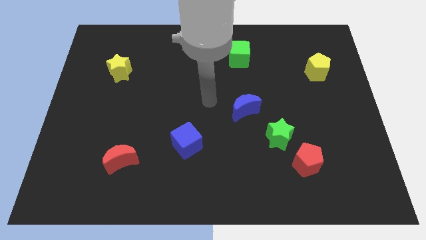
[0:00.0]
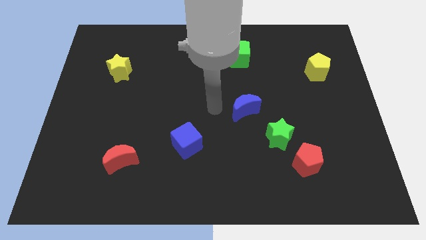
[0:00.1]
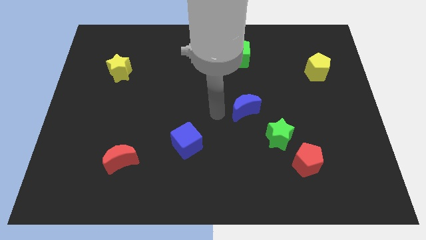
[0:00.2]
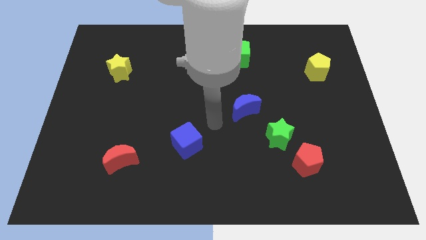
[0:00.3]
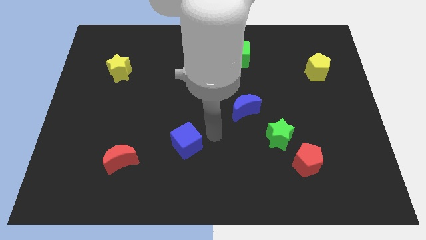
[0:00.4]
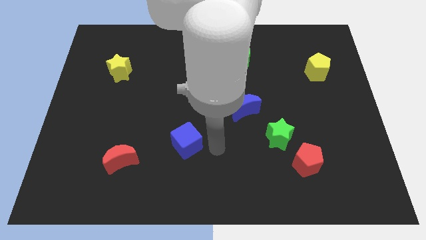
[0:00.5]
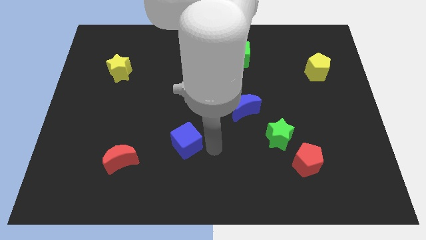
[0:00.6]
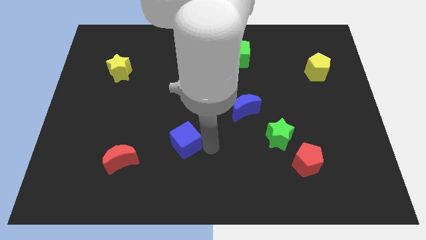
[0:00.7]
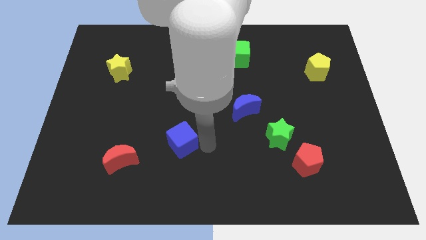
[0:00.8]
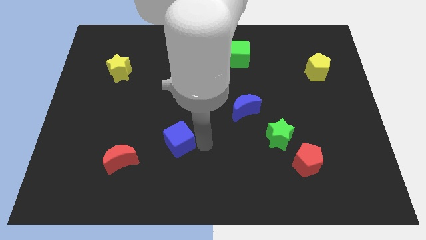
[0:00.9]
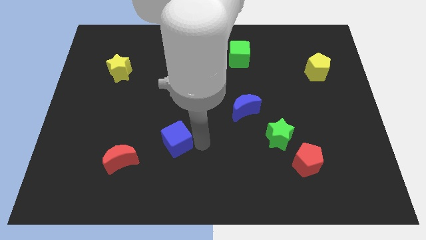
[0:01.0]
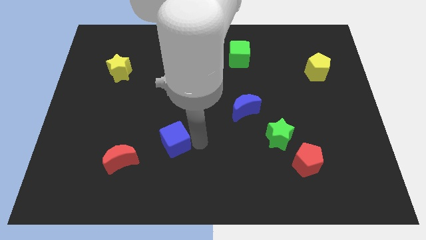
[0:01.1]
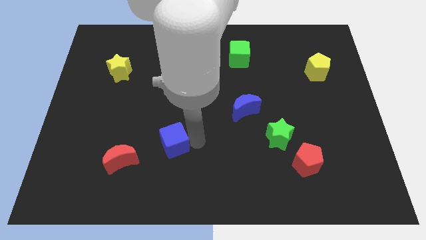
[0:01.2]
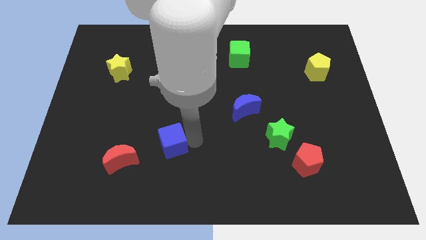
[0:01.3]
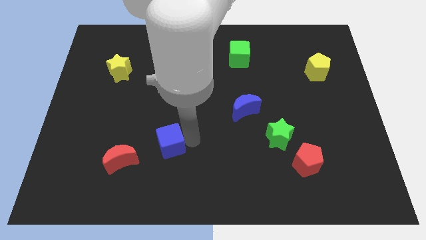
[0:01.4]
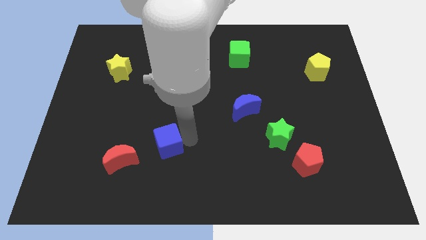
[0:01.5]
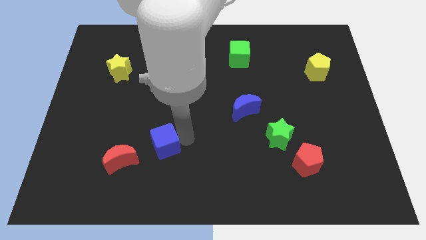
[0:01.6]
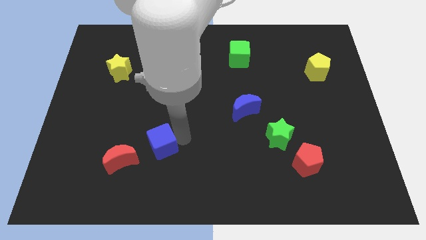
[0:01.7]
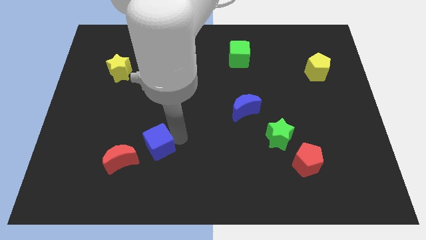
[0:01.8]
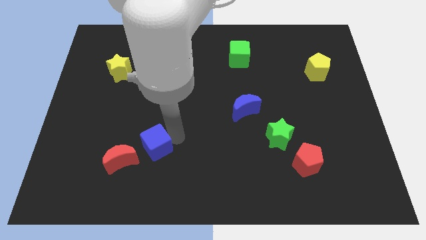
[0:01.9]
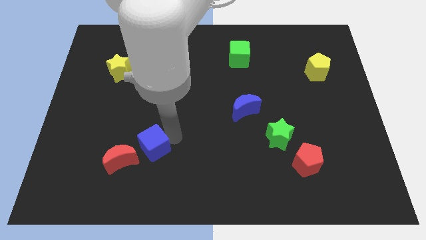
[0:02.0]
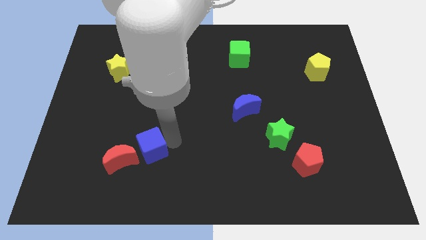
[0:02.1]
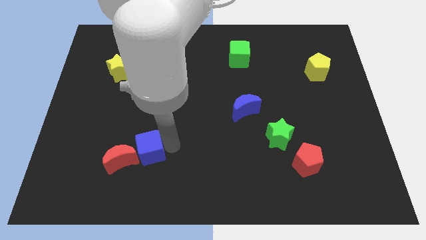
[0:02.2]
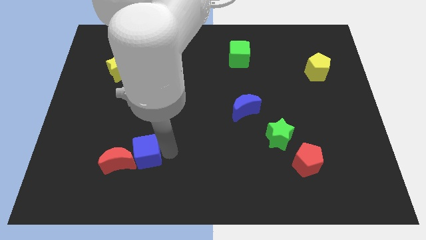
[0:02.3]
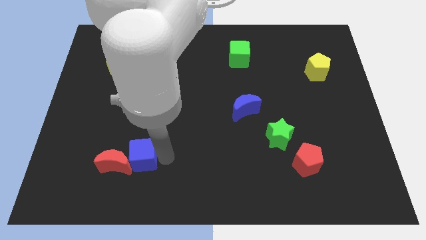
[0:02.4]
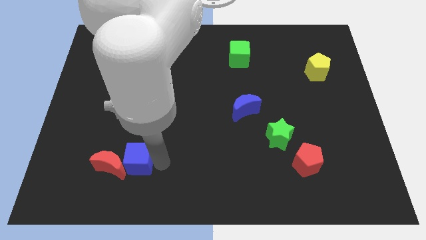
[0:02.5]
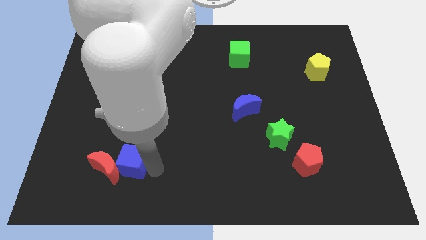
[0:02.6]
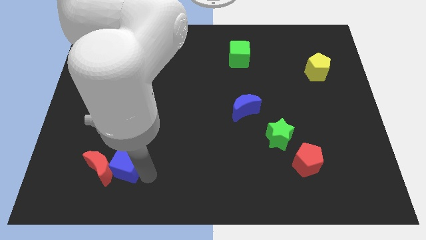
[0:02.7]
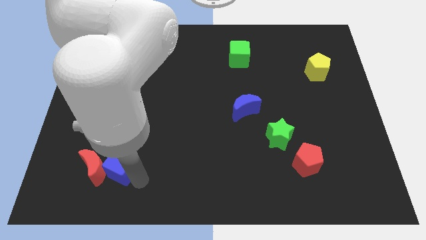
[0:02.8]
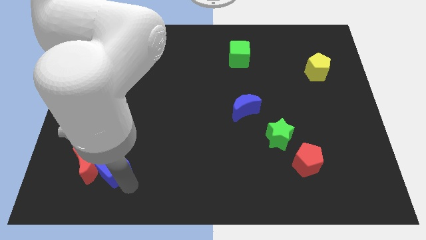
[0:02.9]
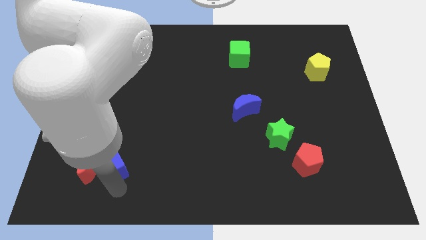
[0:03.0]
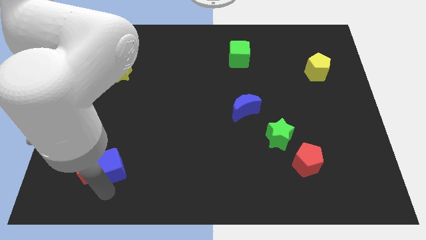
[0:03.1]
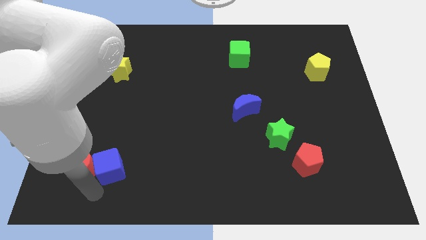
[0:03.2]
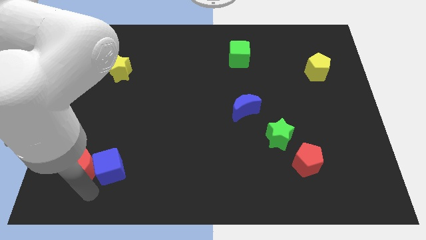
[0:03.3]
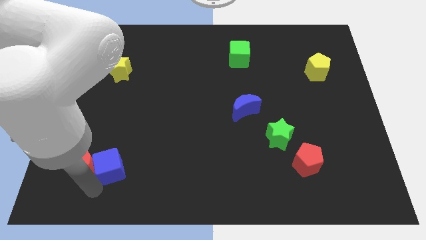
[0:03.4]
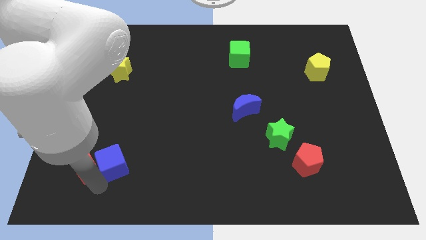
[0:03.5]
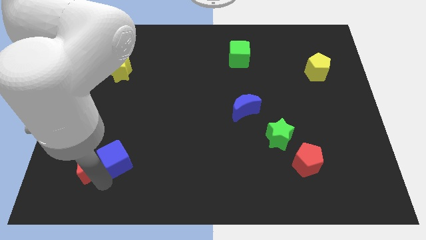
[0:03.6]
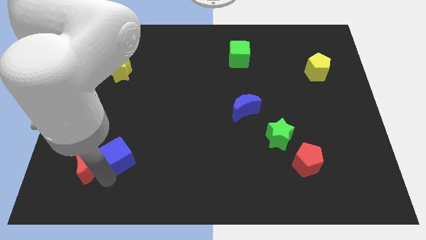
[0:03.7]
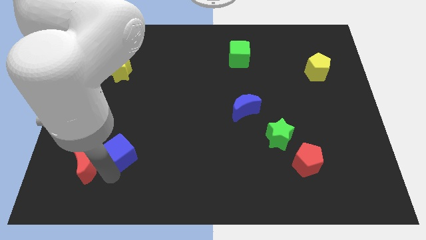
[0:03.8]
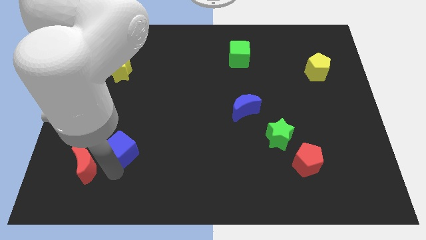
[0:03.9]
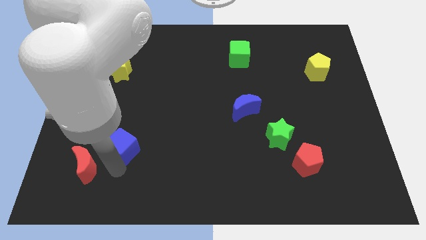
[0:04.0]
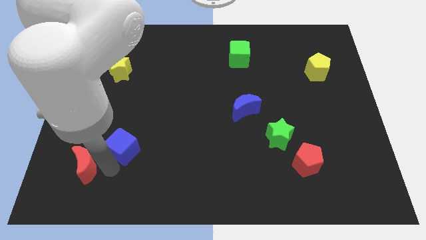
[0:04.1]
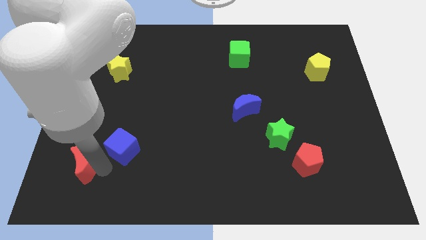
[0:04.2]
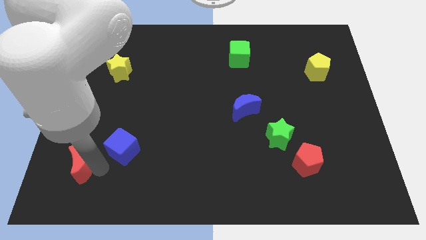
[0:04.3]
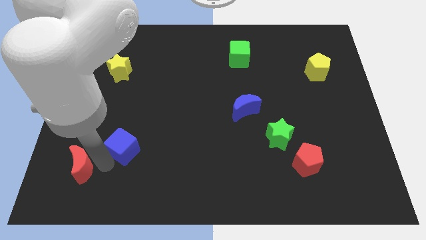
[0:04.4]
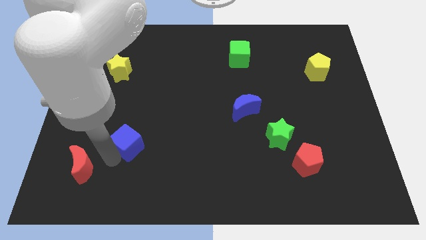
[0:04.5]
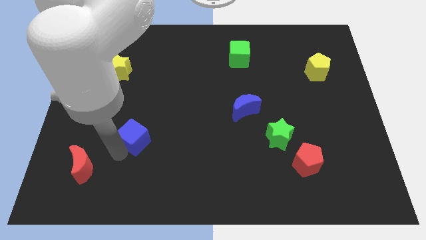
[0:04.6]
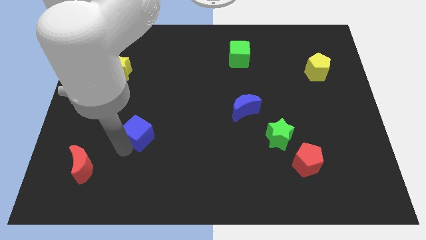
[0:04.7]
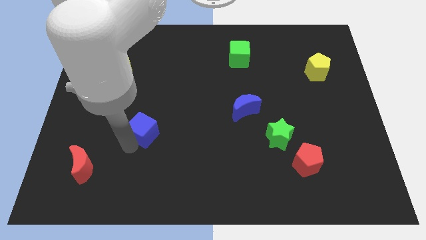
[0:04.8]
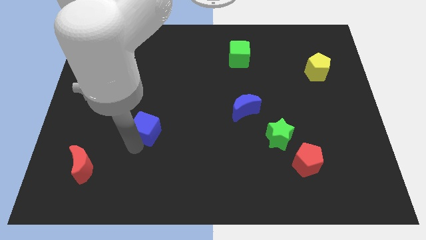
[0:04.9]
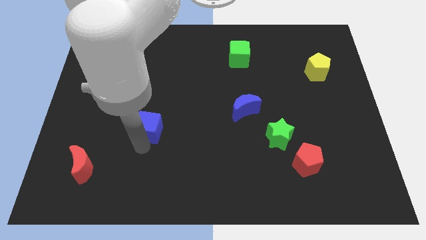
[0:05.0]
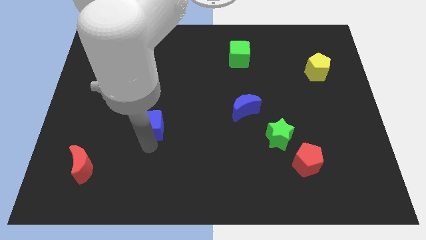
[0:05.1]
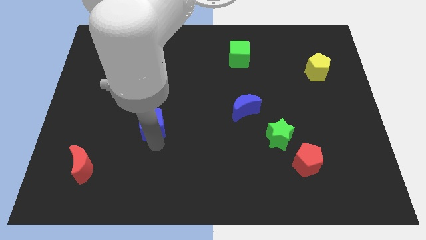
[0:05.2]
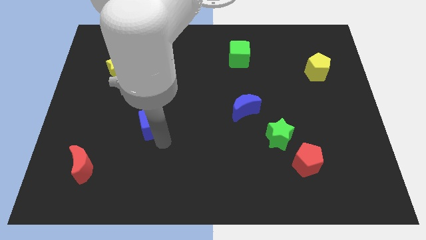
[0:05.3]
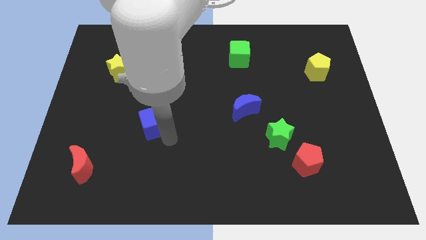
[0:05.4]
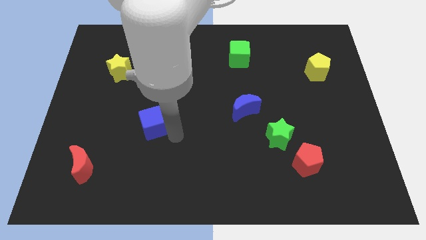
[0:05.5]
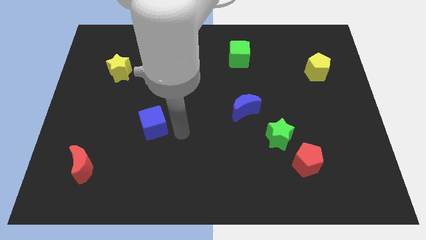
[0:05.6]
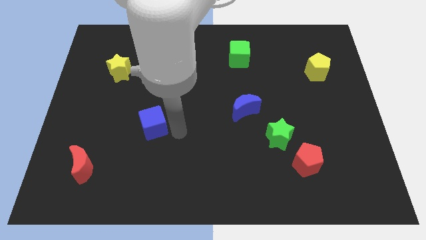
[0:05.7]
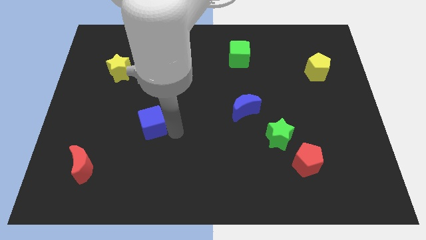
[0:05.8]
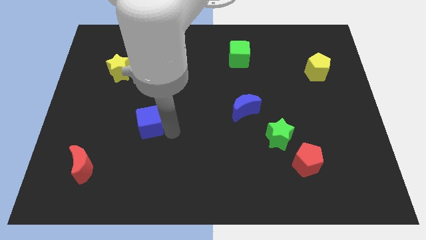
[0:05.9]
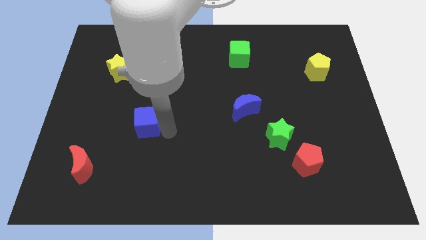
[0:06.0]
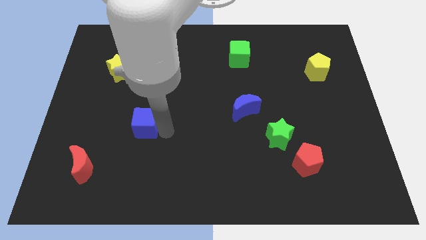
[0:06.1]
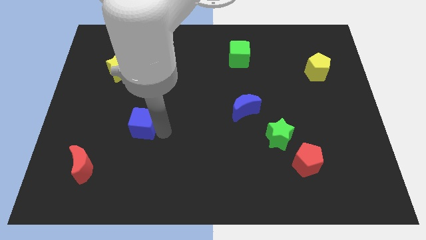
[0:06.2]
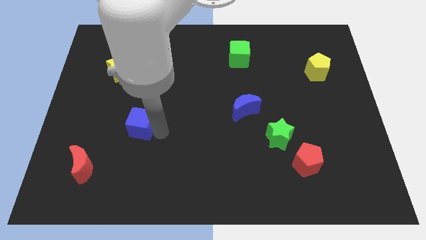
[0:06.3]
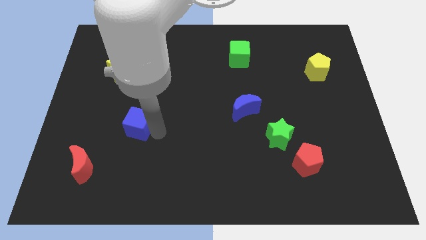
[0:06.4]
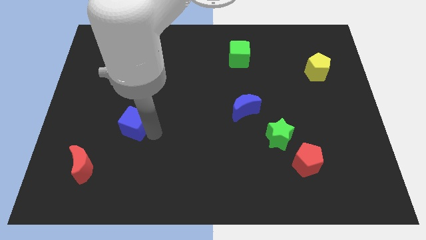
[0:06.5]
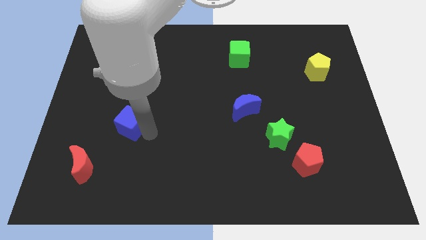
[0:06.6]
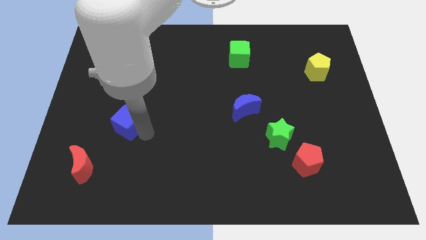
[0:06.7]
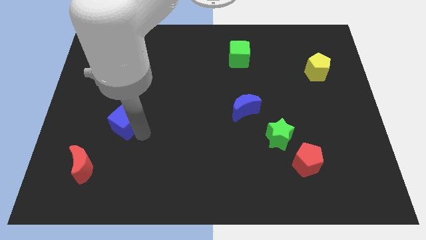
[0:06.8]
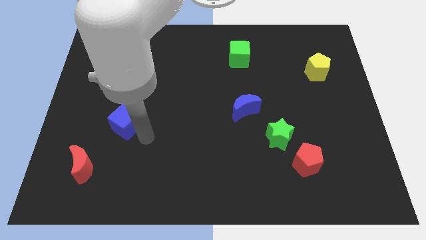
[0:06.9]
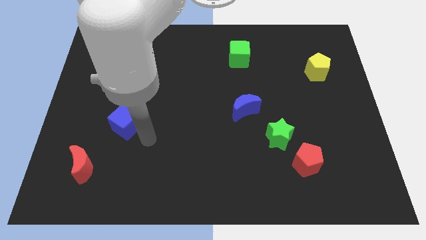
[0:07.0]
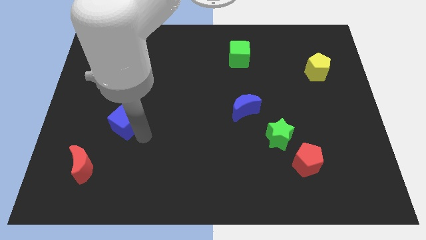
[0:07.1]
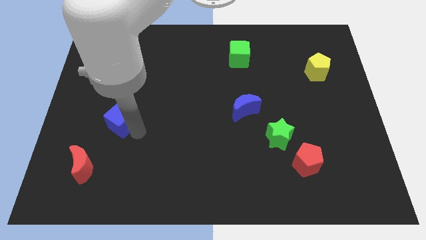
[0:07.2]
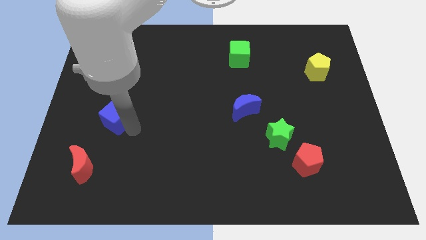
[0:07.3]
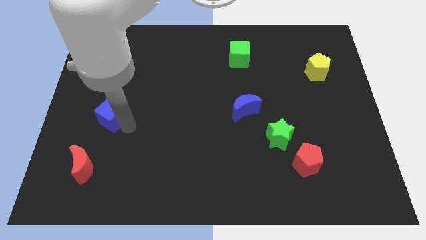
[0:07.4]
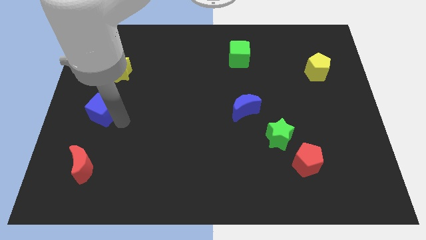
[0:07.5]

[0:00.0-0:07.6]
move the blue cube to the left side
